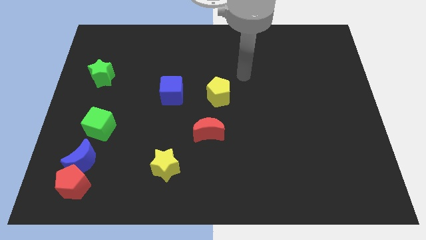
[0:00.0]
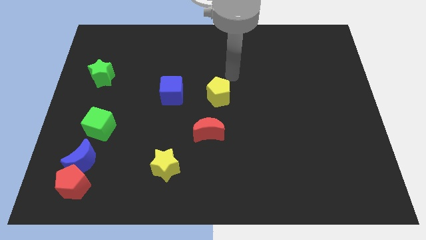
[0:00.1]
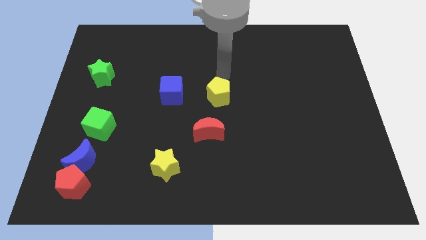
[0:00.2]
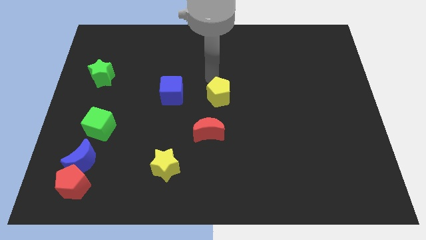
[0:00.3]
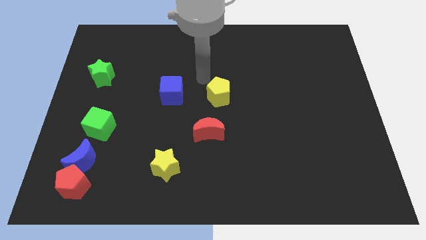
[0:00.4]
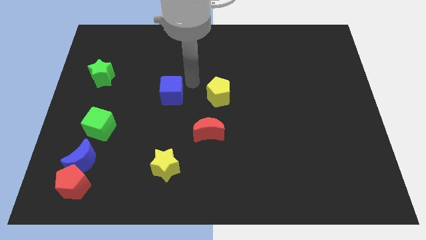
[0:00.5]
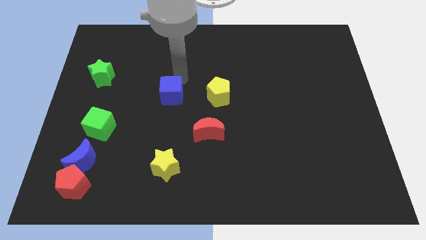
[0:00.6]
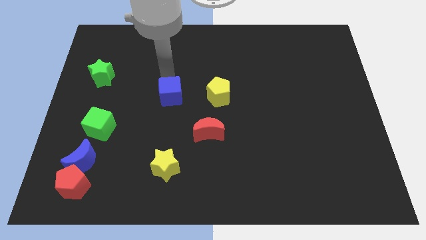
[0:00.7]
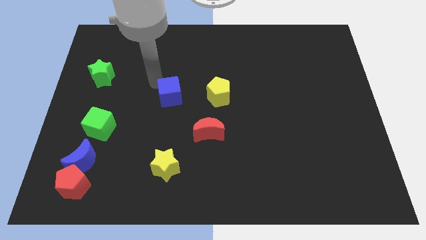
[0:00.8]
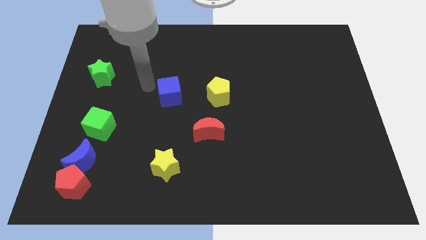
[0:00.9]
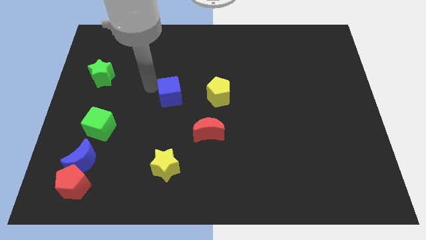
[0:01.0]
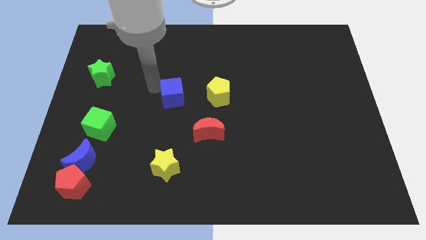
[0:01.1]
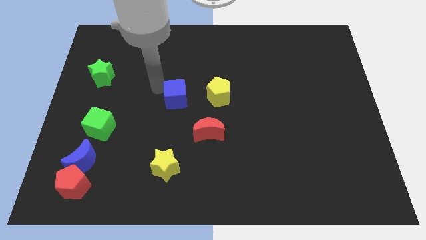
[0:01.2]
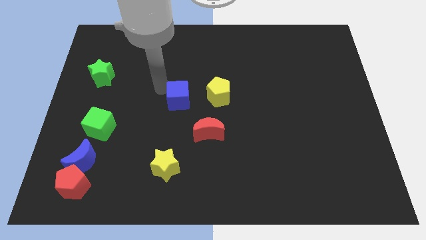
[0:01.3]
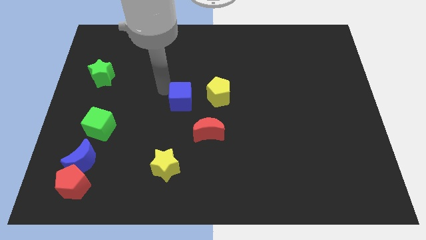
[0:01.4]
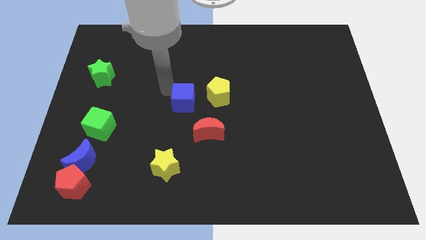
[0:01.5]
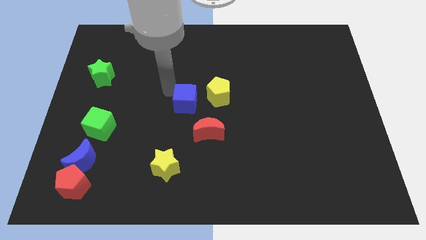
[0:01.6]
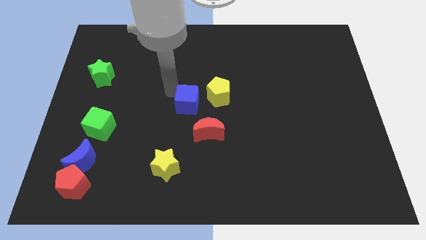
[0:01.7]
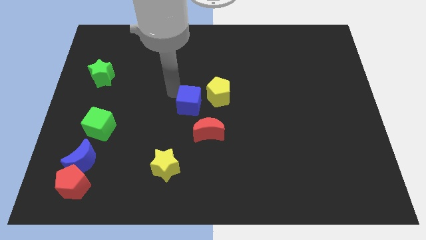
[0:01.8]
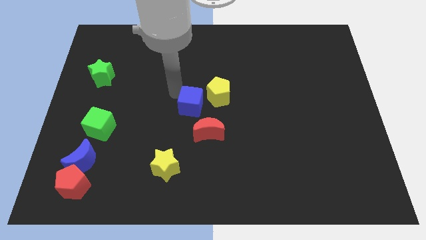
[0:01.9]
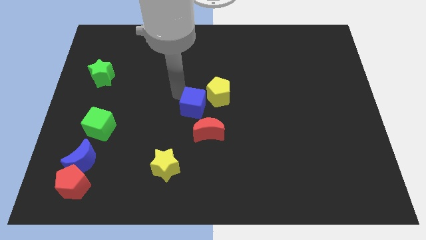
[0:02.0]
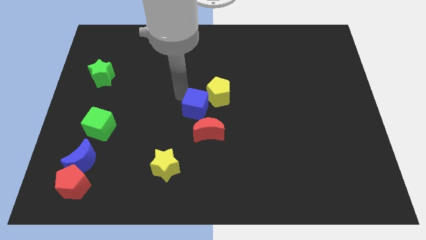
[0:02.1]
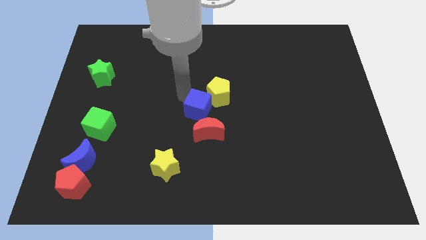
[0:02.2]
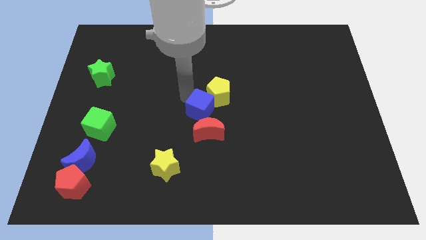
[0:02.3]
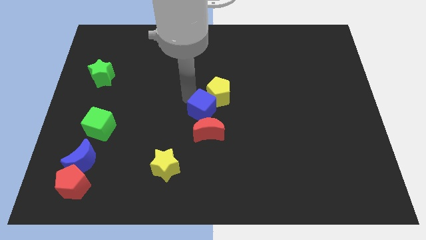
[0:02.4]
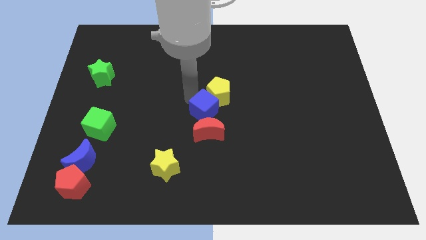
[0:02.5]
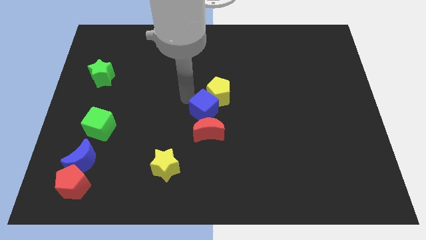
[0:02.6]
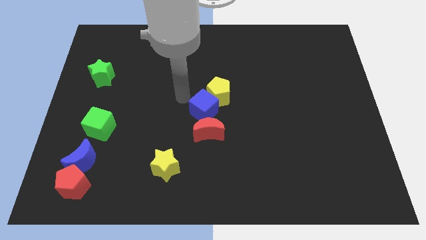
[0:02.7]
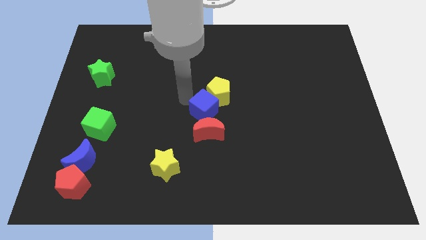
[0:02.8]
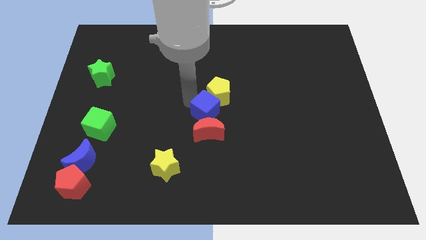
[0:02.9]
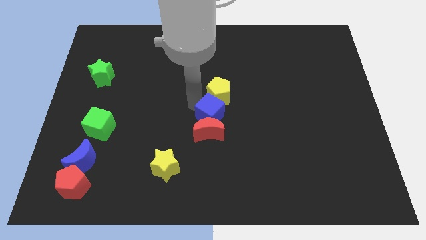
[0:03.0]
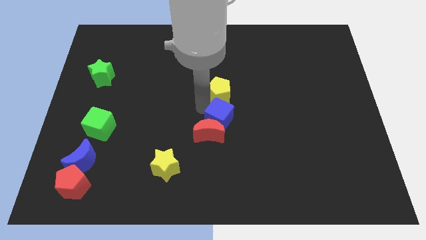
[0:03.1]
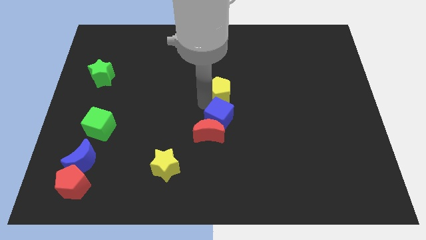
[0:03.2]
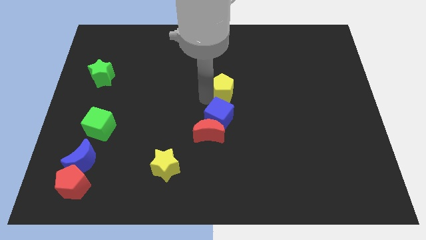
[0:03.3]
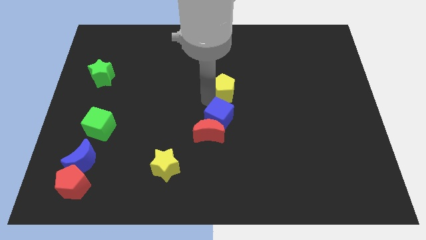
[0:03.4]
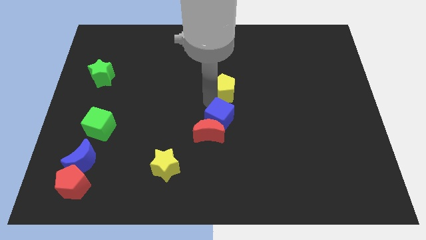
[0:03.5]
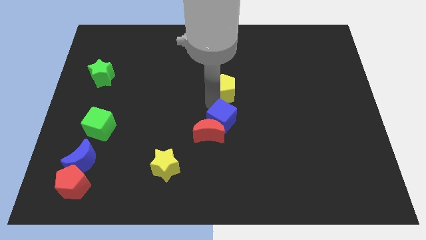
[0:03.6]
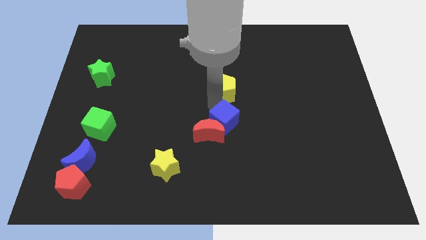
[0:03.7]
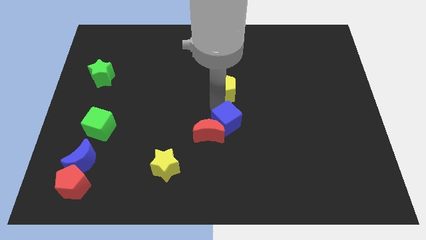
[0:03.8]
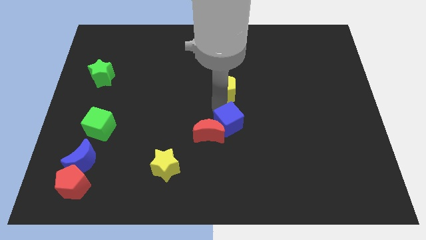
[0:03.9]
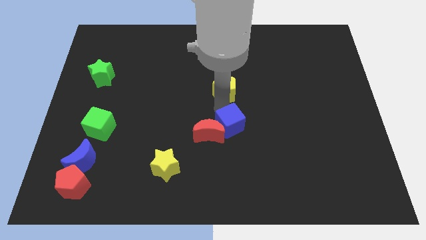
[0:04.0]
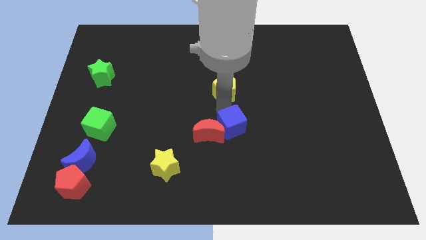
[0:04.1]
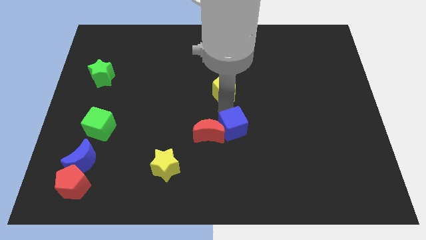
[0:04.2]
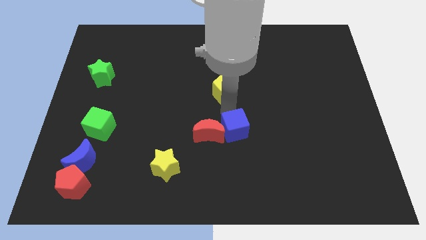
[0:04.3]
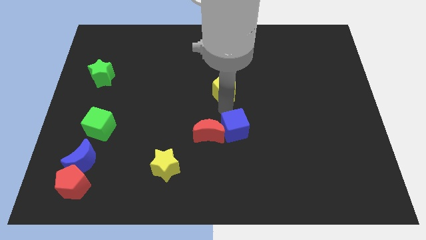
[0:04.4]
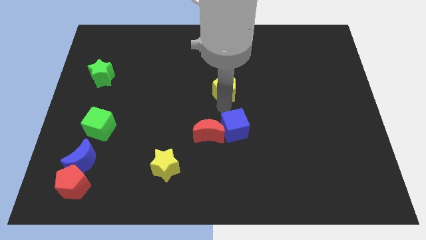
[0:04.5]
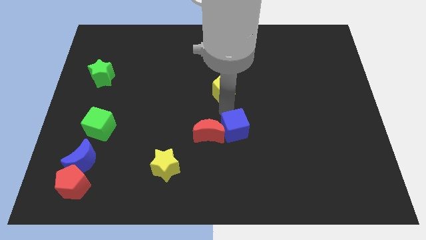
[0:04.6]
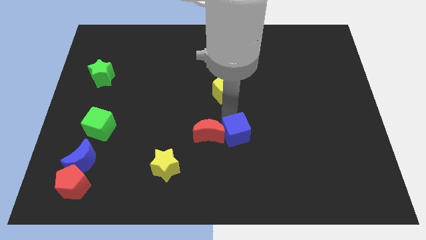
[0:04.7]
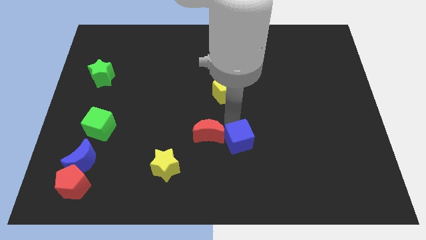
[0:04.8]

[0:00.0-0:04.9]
slide the blue cube diagonally down and right

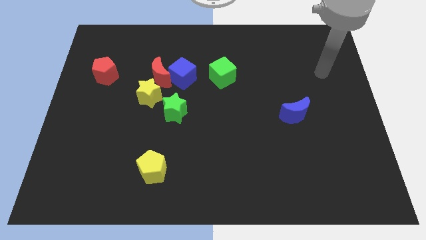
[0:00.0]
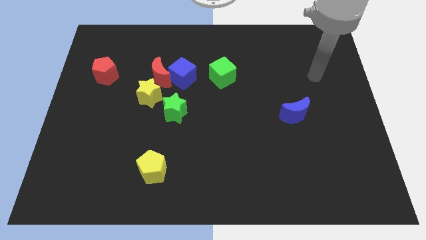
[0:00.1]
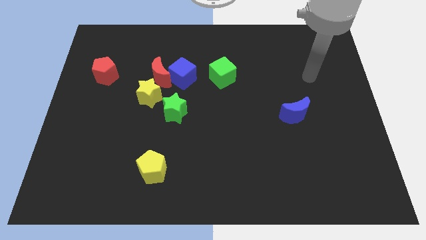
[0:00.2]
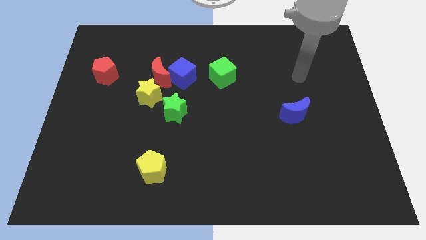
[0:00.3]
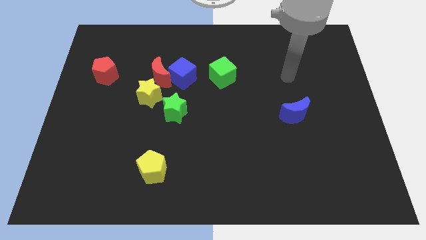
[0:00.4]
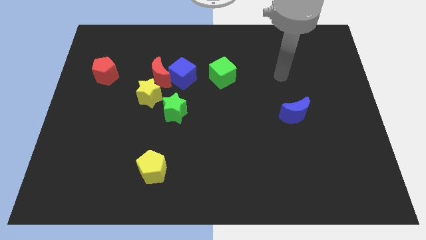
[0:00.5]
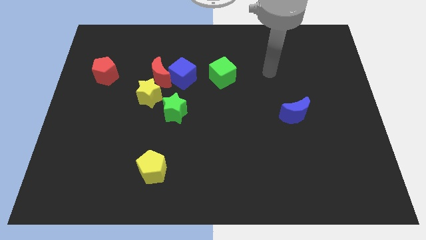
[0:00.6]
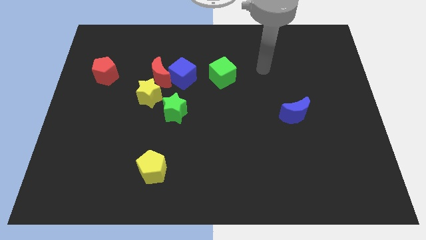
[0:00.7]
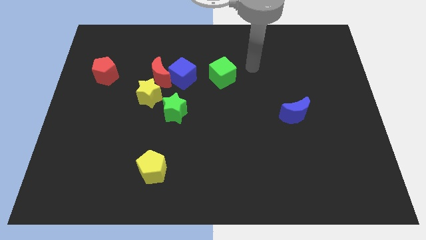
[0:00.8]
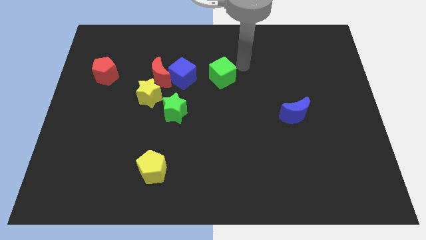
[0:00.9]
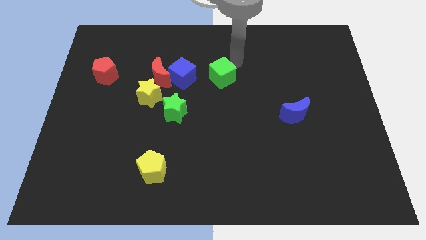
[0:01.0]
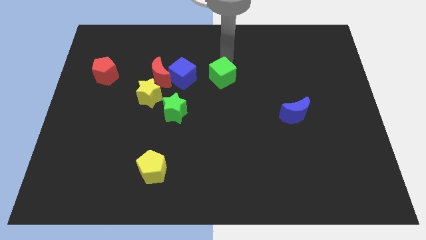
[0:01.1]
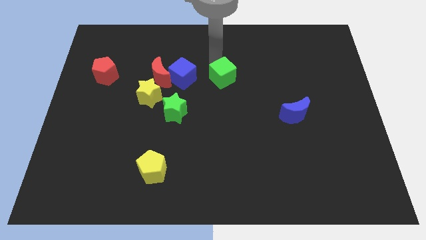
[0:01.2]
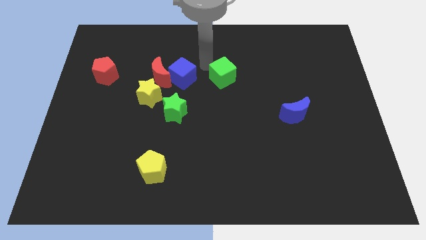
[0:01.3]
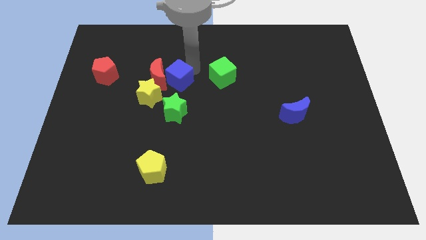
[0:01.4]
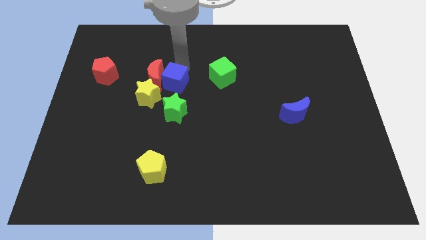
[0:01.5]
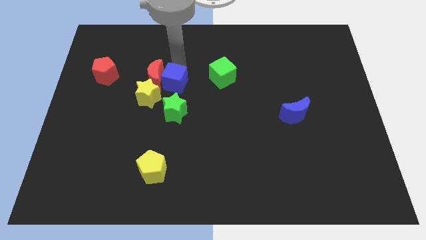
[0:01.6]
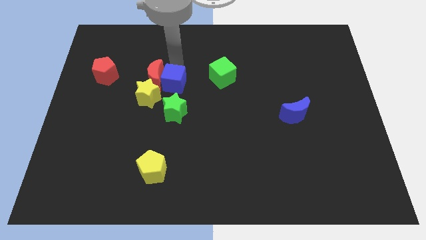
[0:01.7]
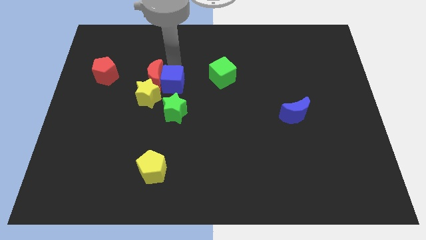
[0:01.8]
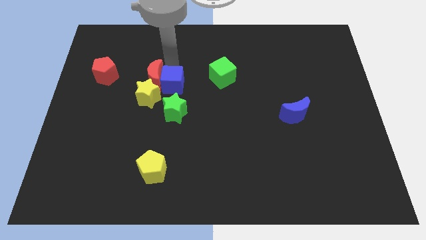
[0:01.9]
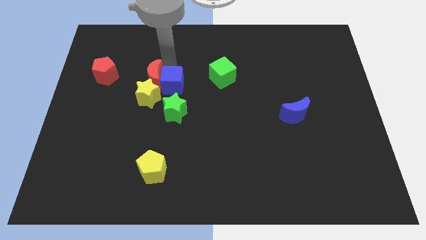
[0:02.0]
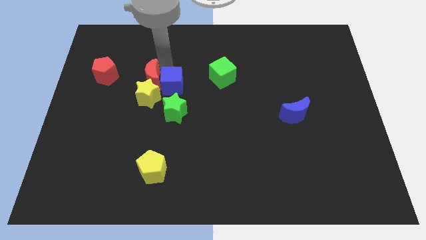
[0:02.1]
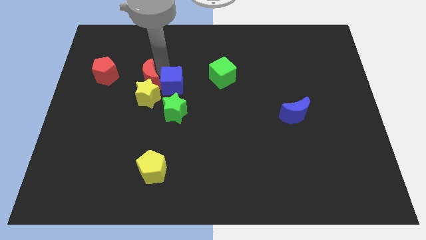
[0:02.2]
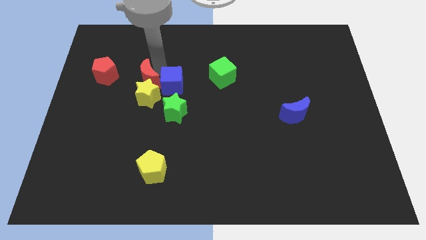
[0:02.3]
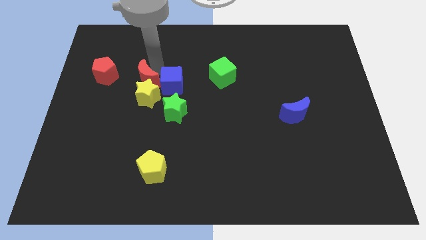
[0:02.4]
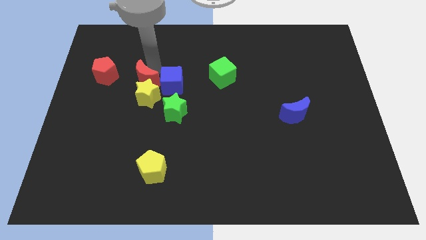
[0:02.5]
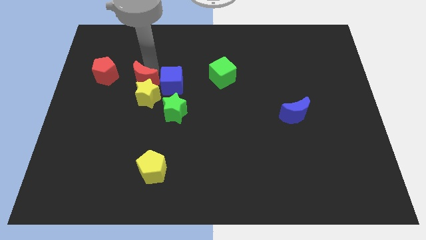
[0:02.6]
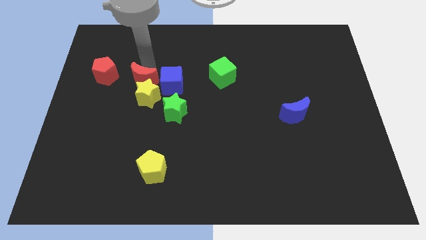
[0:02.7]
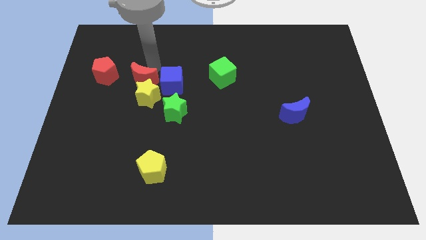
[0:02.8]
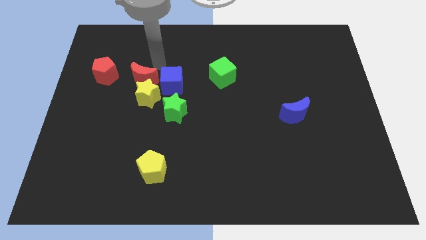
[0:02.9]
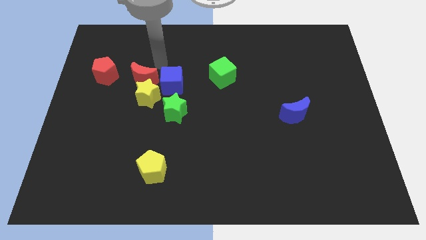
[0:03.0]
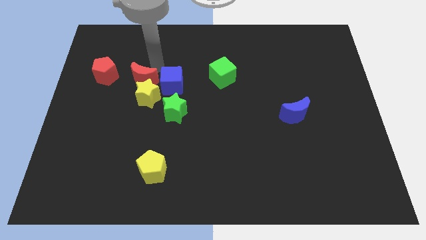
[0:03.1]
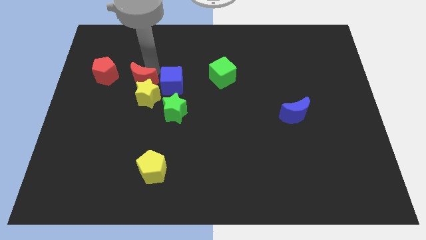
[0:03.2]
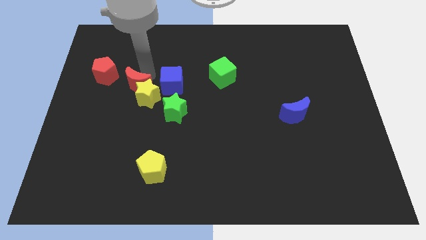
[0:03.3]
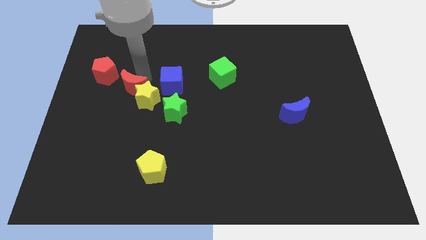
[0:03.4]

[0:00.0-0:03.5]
slide the red moon somewhat downwards and then left
